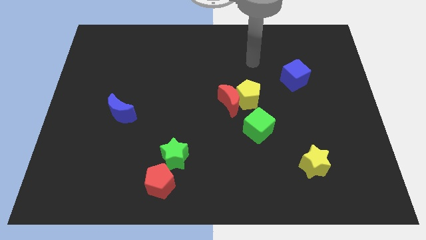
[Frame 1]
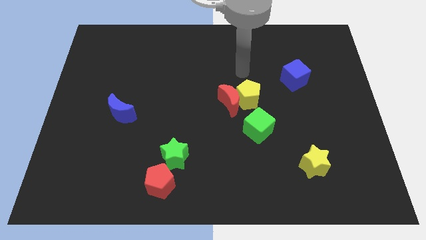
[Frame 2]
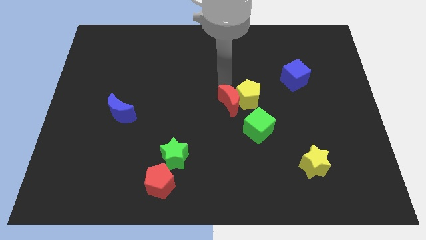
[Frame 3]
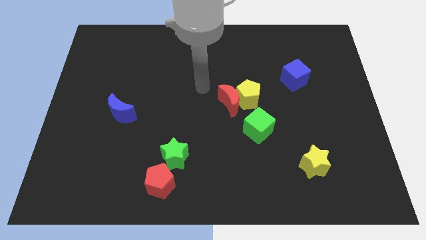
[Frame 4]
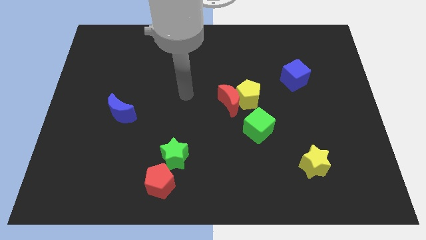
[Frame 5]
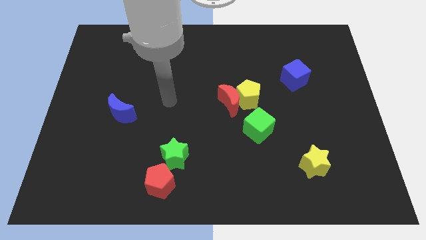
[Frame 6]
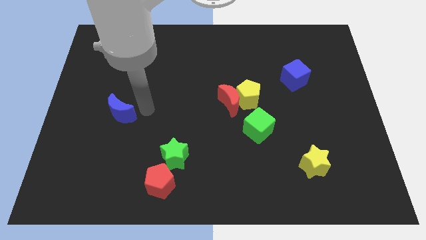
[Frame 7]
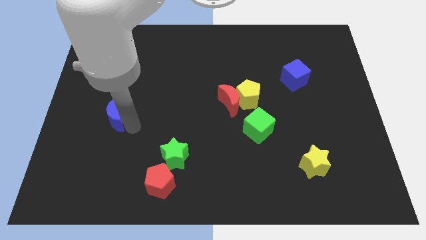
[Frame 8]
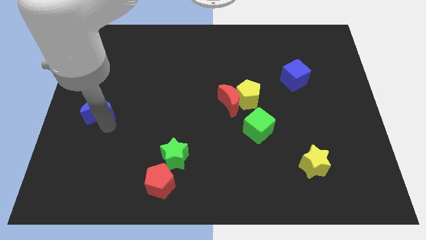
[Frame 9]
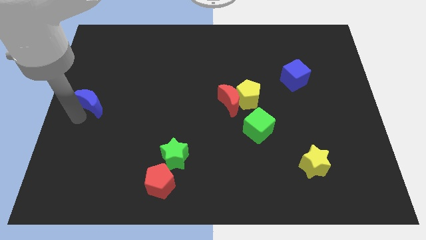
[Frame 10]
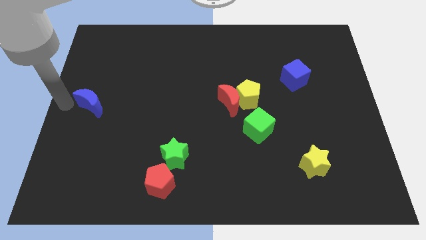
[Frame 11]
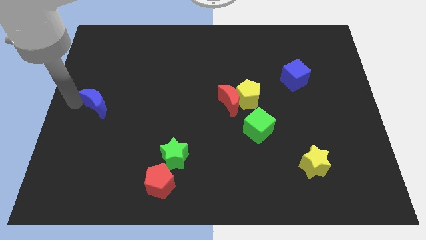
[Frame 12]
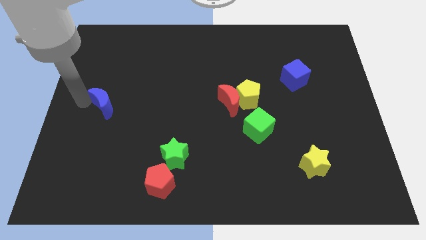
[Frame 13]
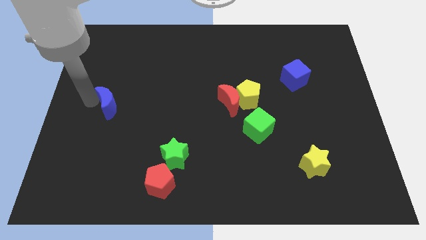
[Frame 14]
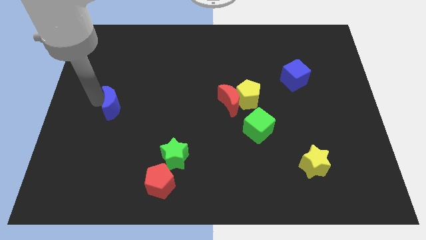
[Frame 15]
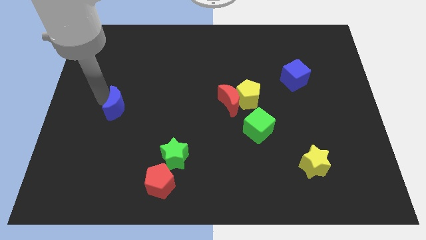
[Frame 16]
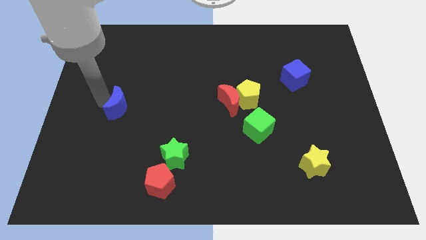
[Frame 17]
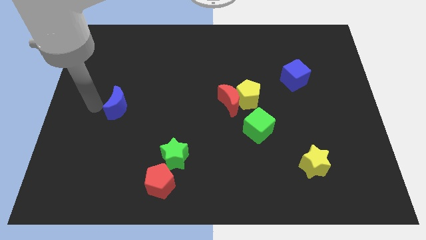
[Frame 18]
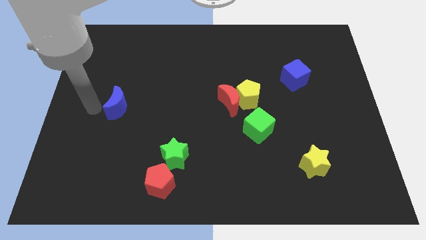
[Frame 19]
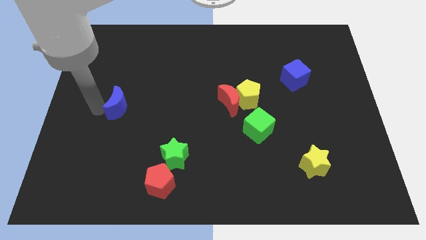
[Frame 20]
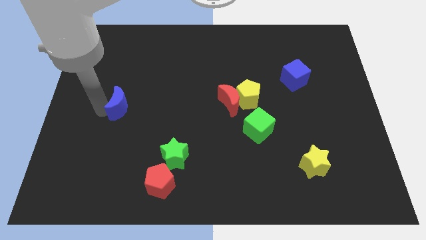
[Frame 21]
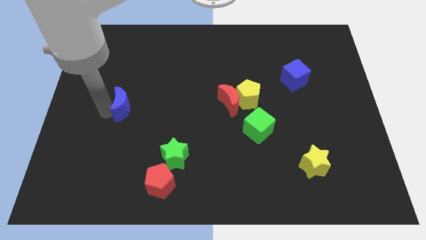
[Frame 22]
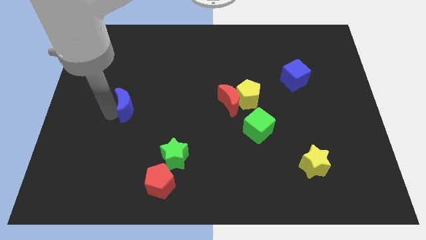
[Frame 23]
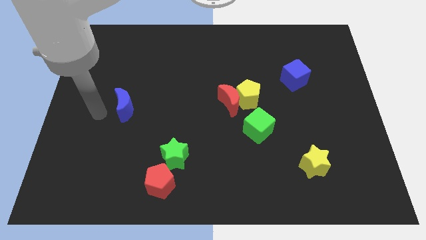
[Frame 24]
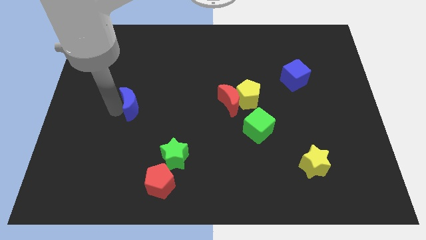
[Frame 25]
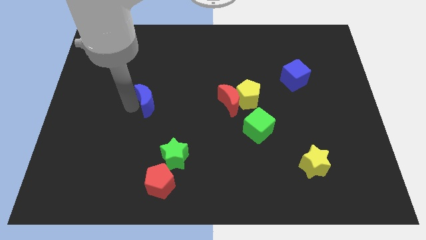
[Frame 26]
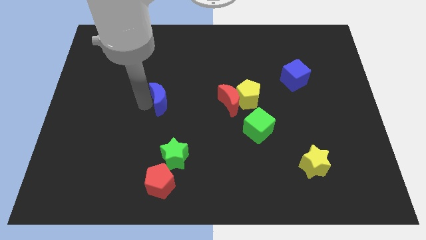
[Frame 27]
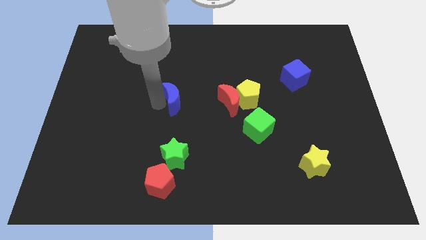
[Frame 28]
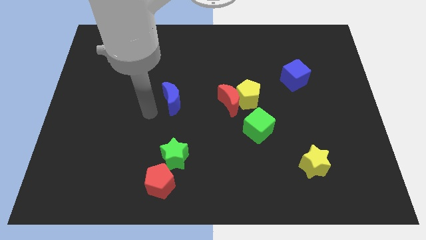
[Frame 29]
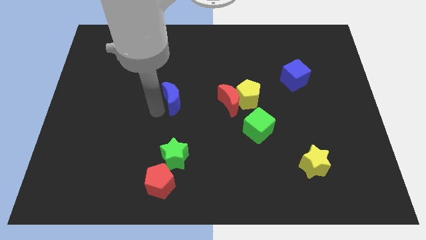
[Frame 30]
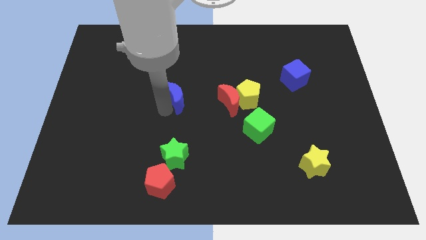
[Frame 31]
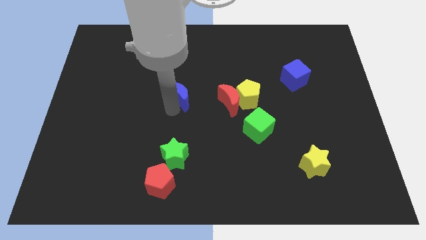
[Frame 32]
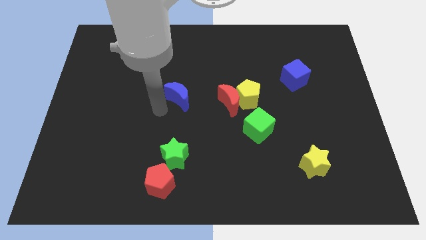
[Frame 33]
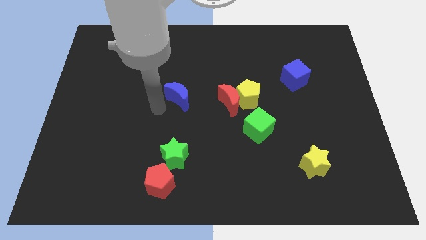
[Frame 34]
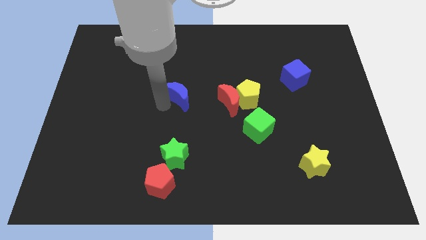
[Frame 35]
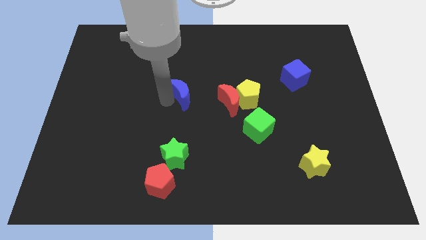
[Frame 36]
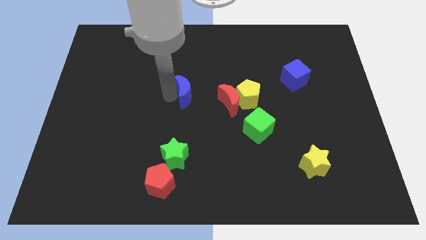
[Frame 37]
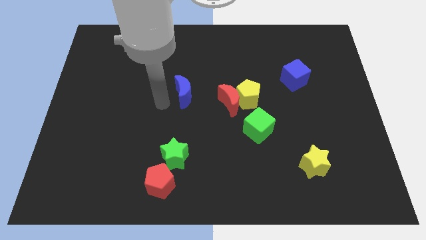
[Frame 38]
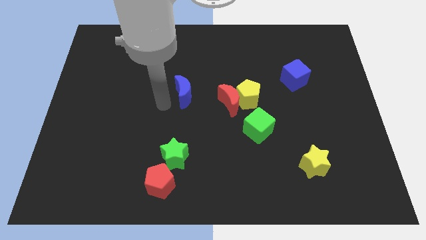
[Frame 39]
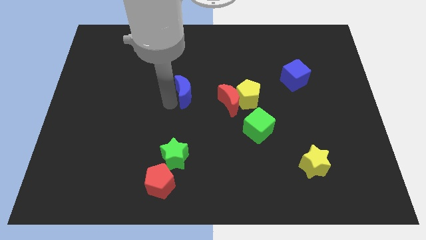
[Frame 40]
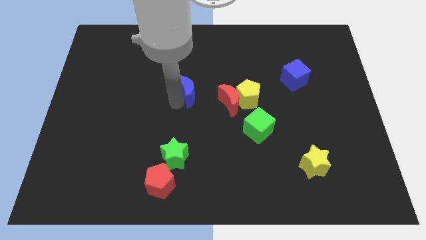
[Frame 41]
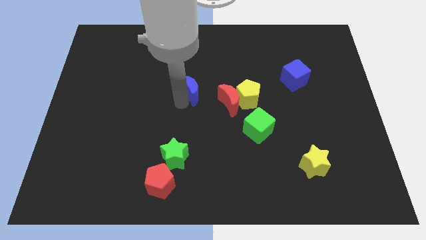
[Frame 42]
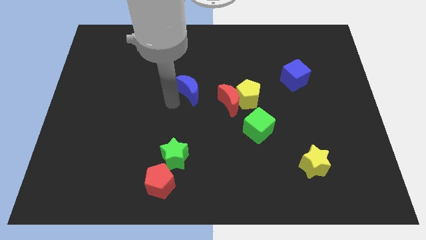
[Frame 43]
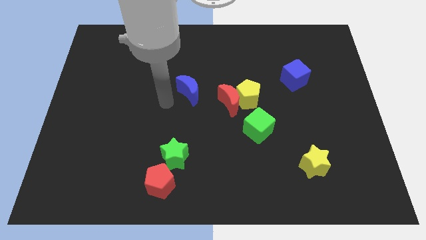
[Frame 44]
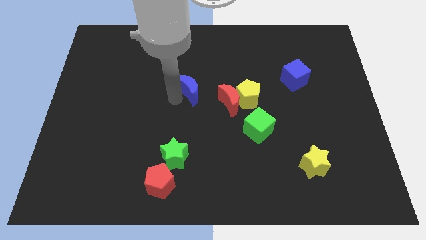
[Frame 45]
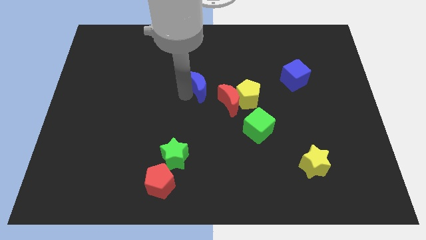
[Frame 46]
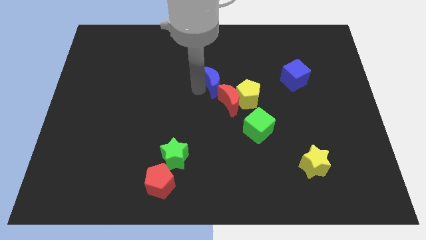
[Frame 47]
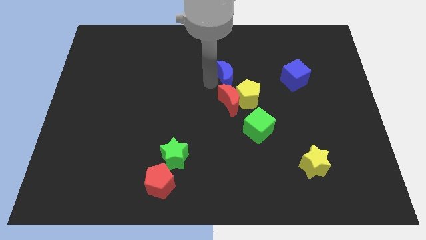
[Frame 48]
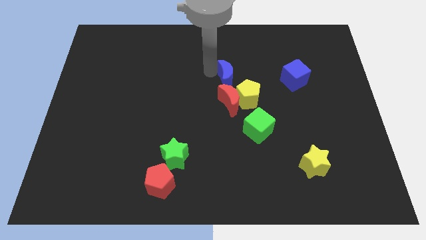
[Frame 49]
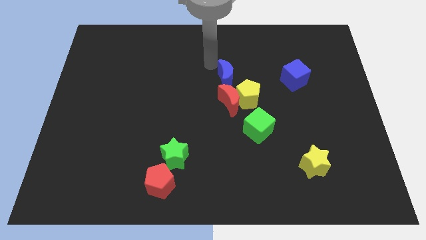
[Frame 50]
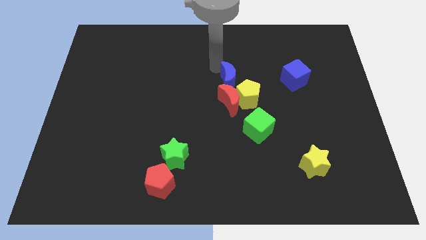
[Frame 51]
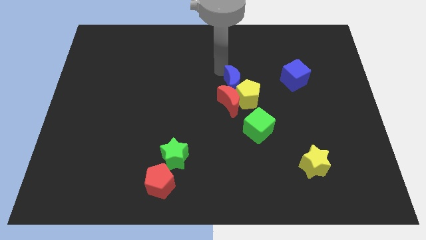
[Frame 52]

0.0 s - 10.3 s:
push the blue moon towards the yellow pentagon

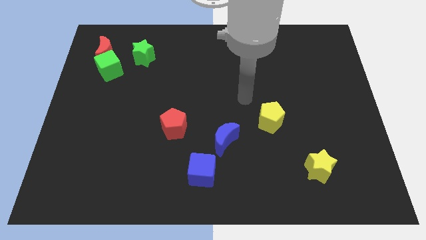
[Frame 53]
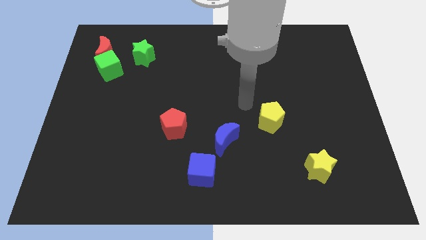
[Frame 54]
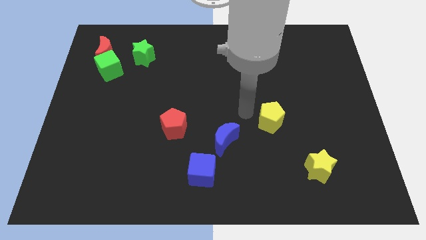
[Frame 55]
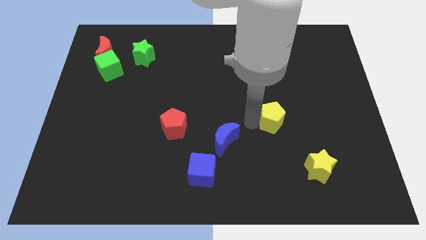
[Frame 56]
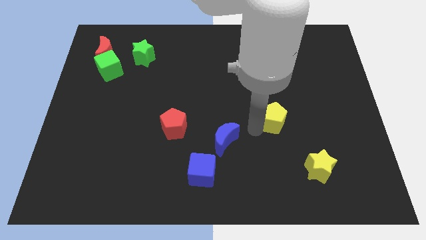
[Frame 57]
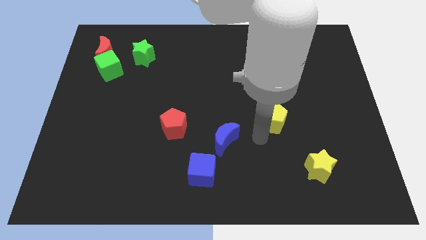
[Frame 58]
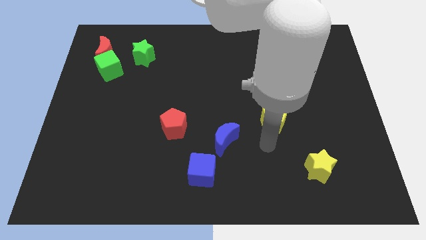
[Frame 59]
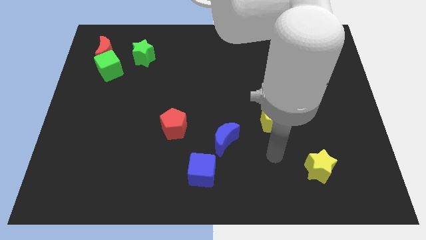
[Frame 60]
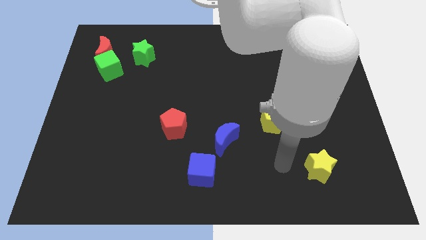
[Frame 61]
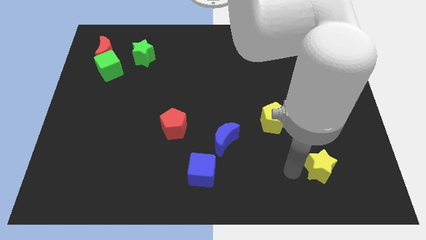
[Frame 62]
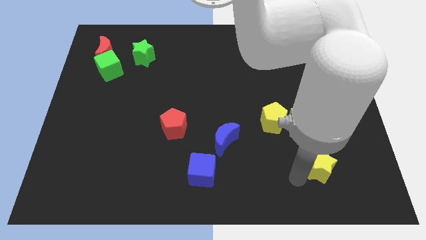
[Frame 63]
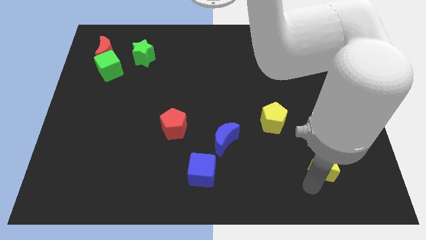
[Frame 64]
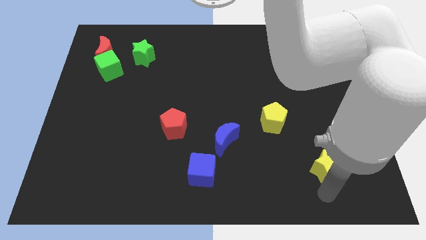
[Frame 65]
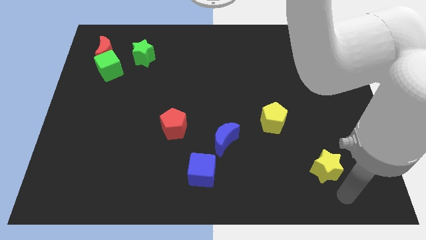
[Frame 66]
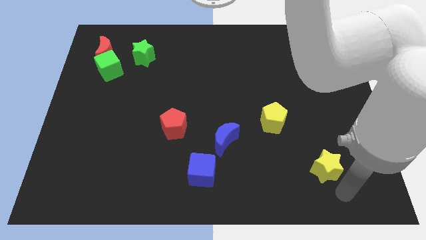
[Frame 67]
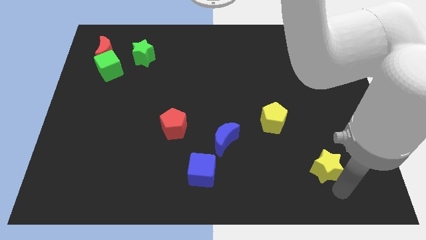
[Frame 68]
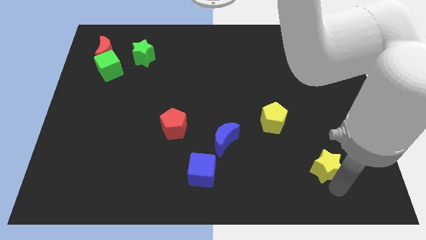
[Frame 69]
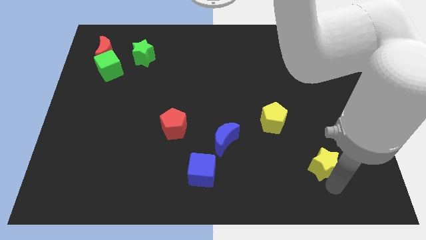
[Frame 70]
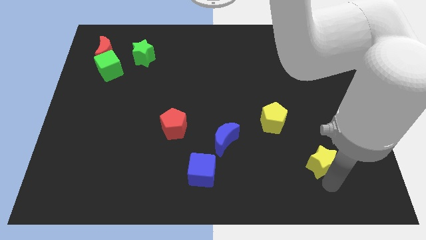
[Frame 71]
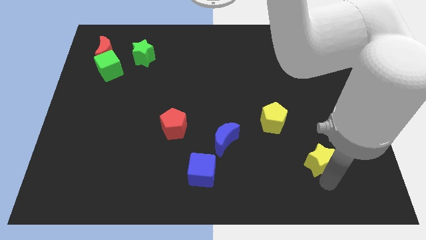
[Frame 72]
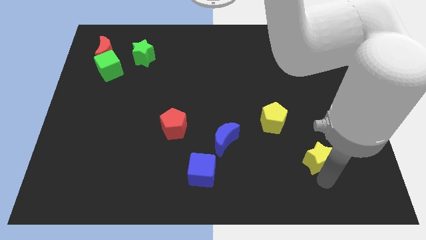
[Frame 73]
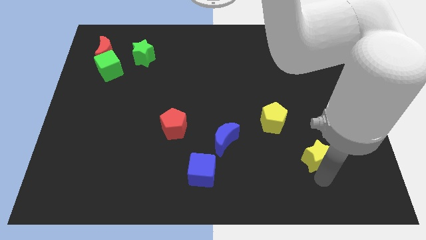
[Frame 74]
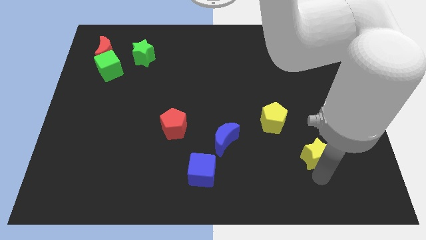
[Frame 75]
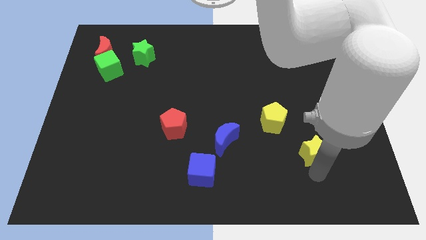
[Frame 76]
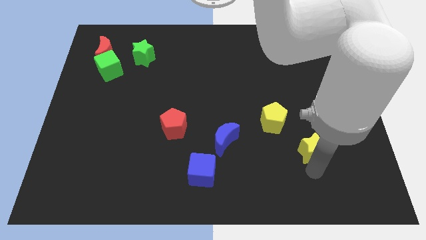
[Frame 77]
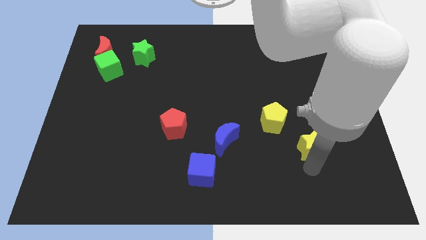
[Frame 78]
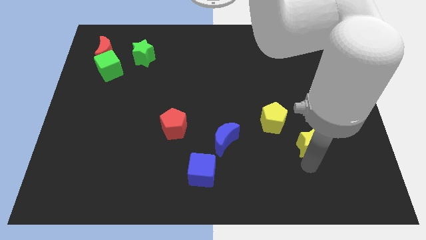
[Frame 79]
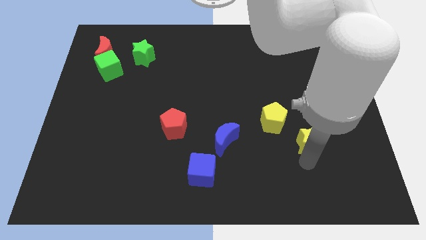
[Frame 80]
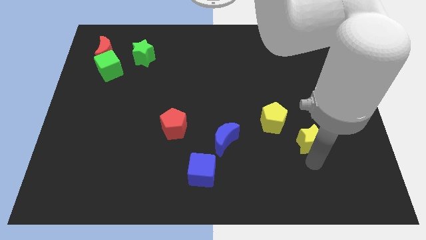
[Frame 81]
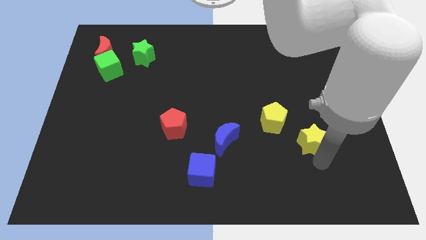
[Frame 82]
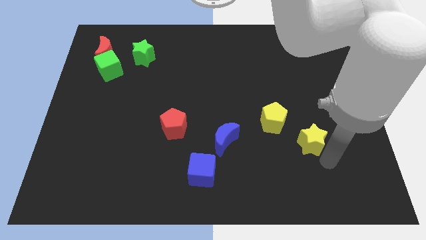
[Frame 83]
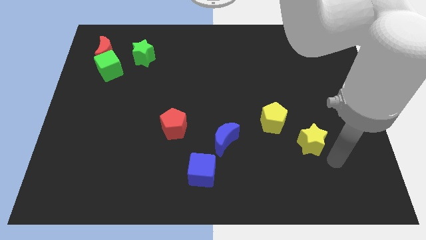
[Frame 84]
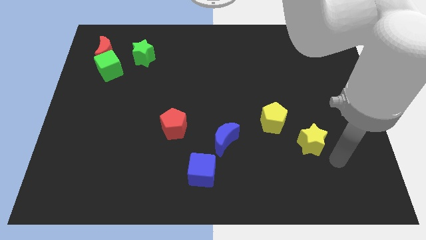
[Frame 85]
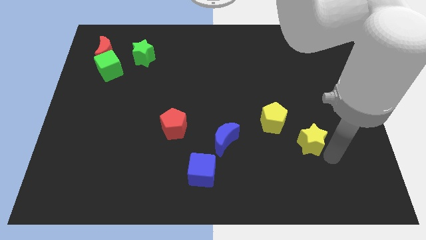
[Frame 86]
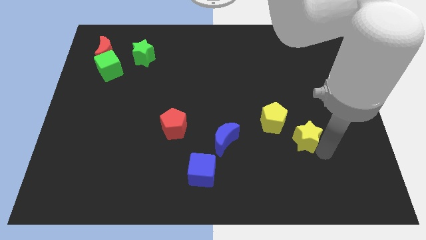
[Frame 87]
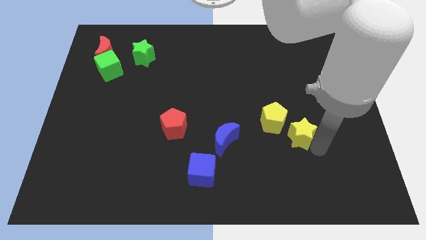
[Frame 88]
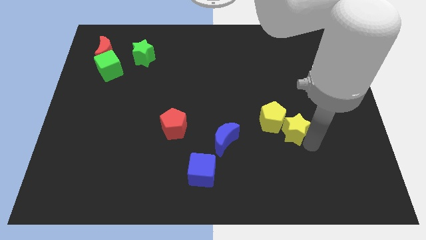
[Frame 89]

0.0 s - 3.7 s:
push the yellow star towards the yellow pentagon

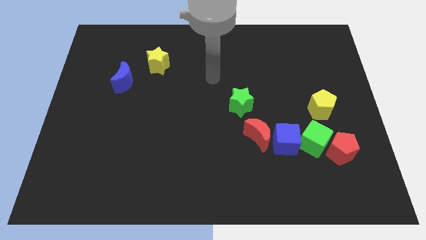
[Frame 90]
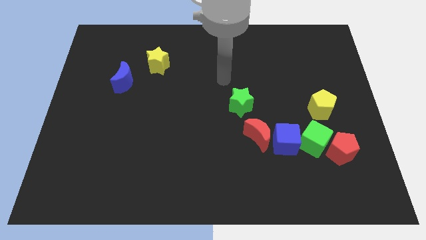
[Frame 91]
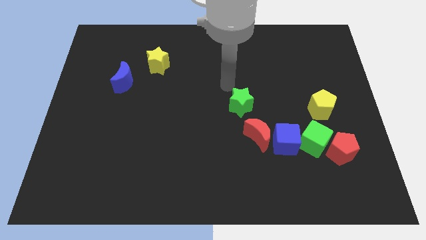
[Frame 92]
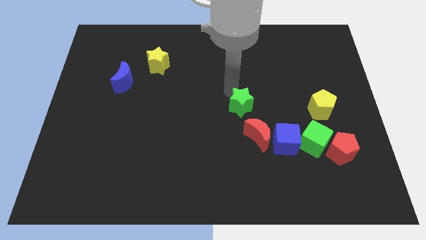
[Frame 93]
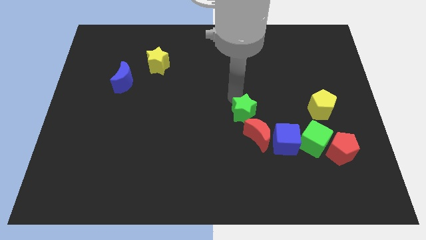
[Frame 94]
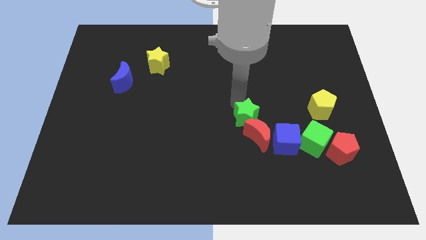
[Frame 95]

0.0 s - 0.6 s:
push the green star towards the red moon
